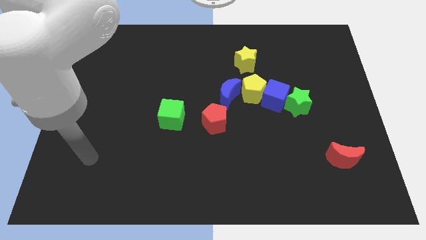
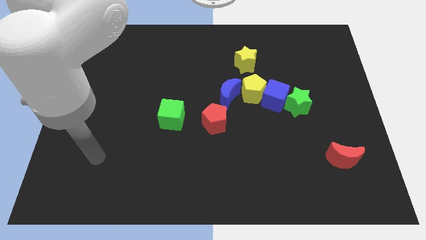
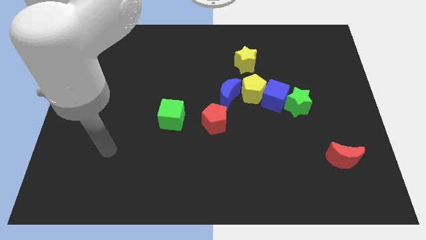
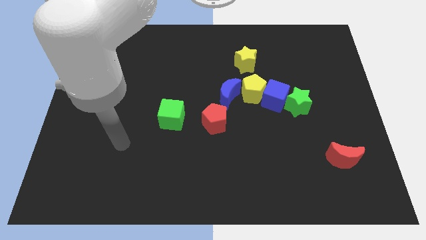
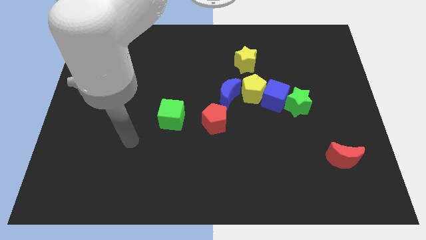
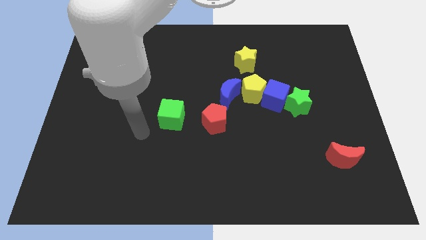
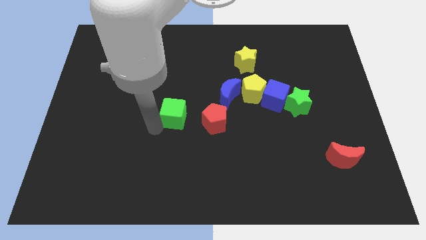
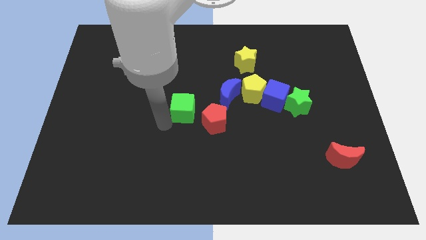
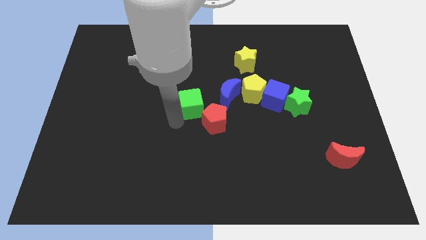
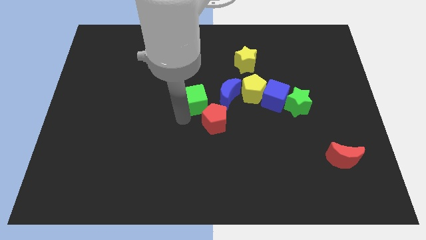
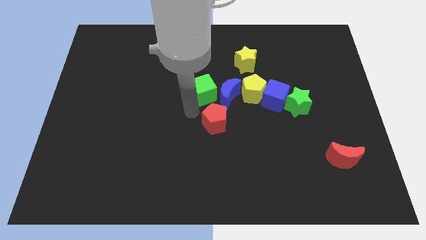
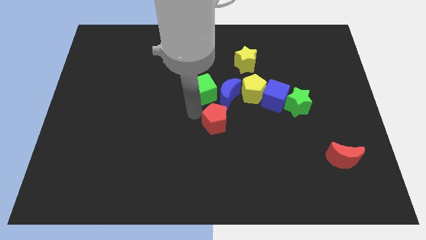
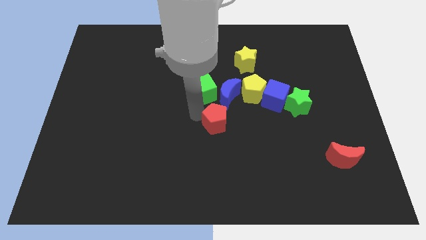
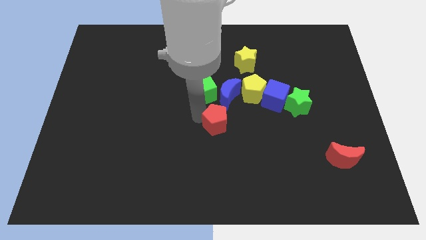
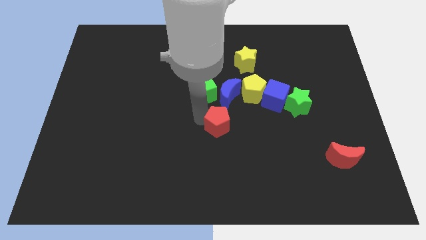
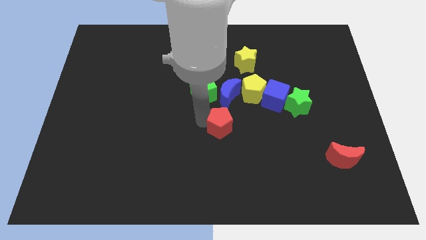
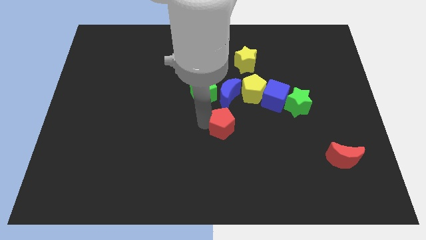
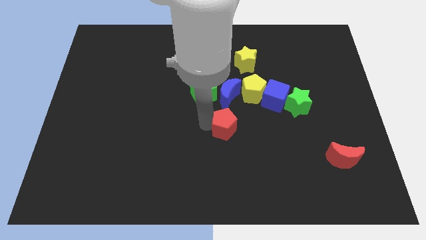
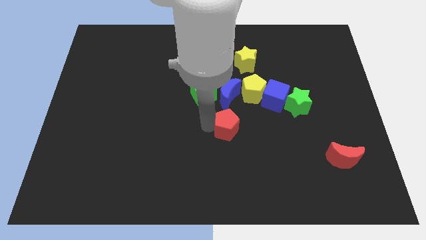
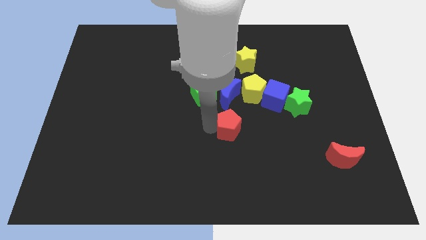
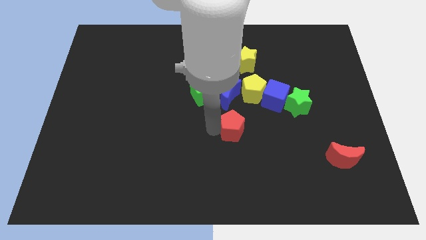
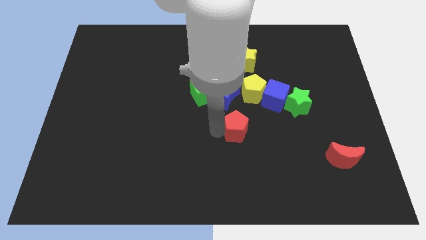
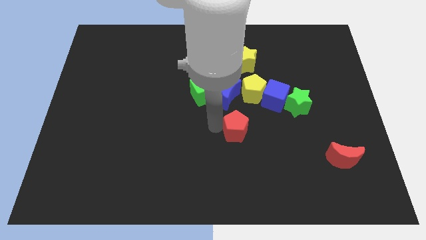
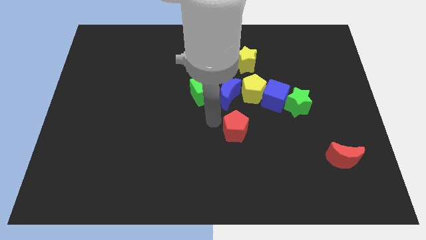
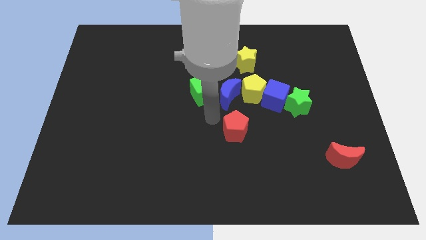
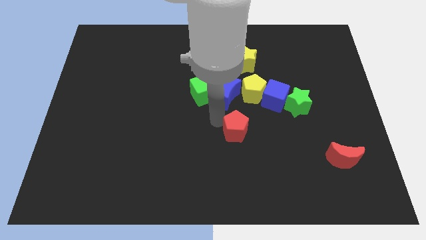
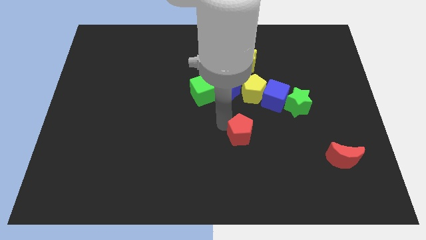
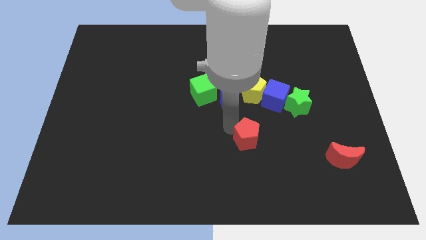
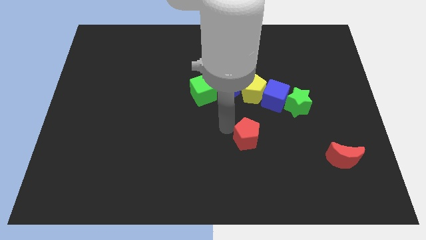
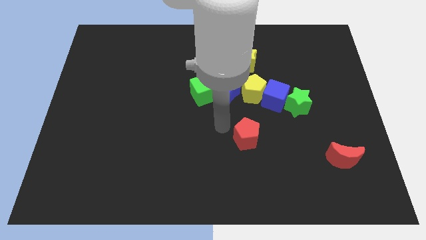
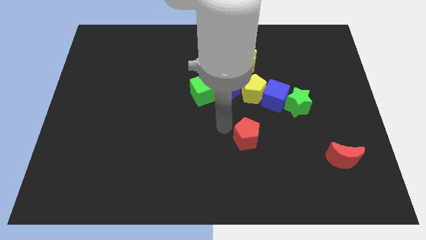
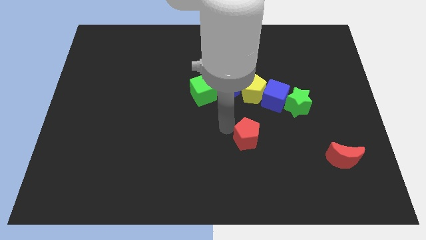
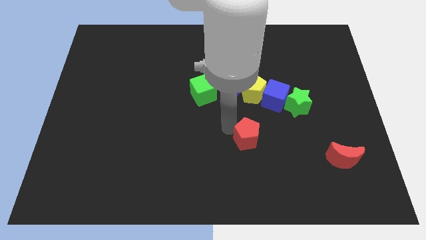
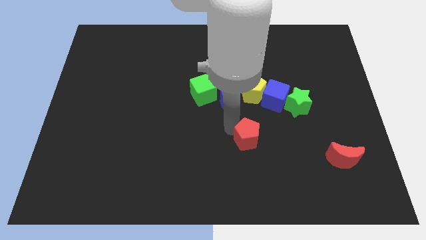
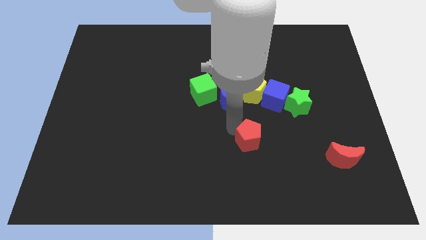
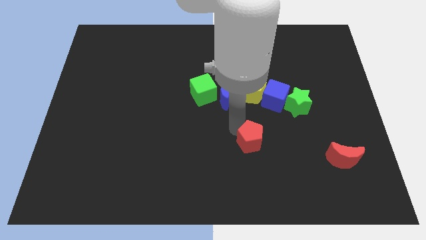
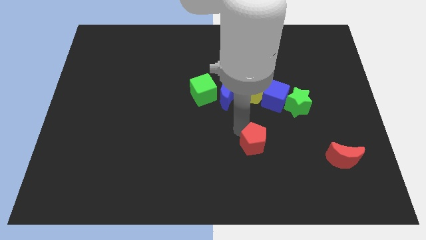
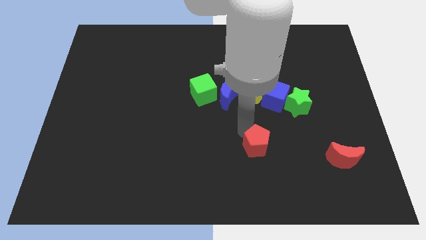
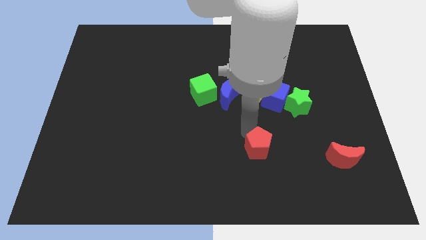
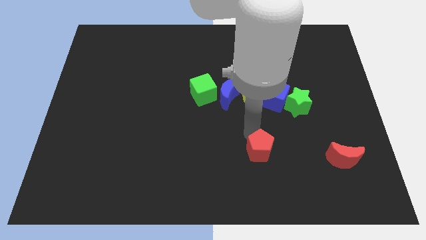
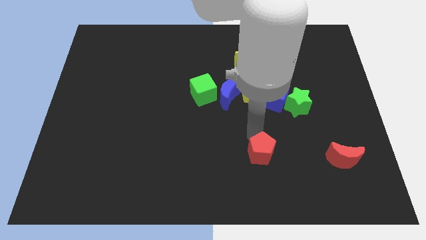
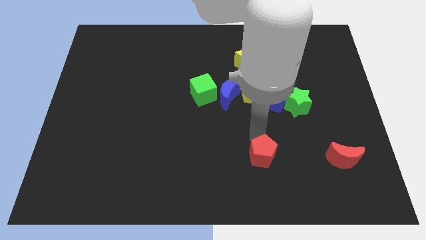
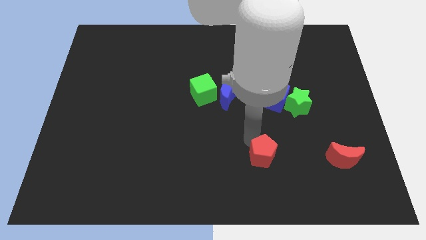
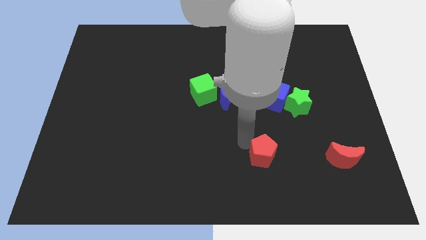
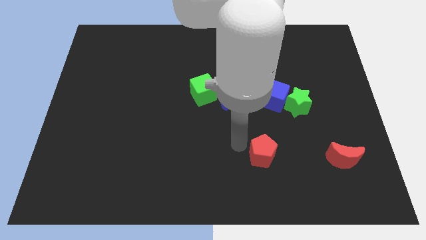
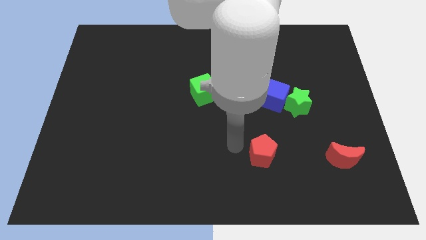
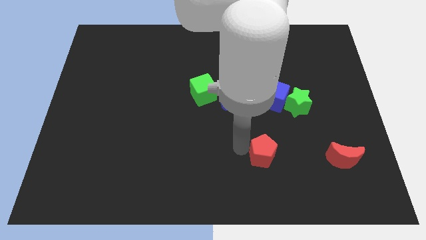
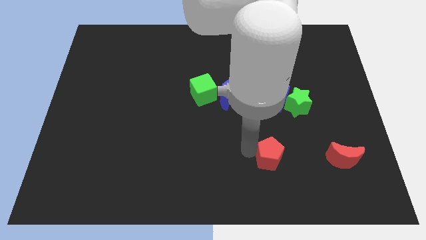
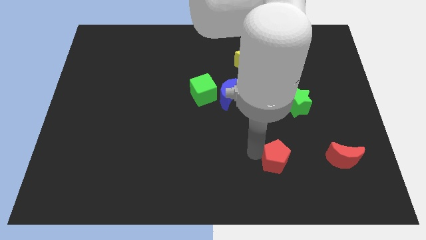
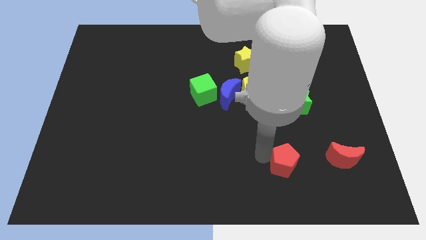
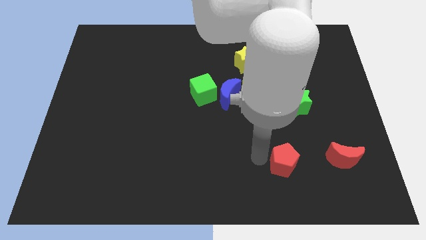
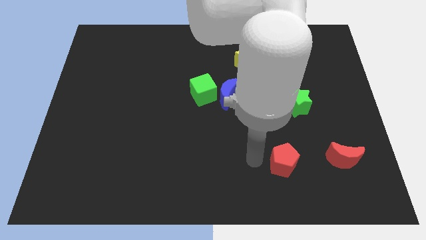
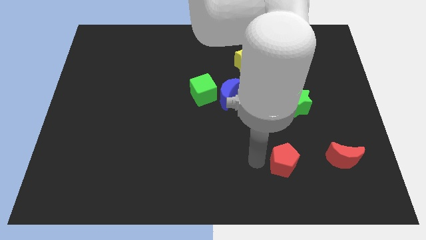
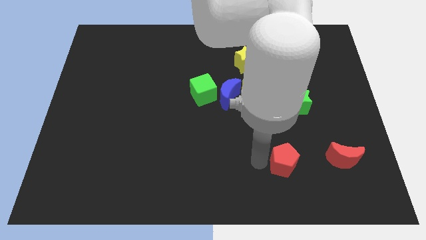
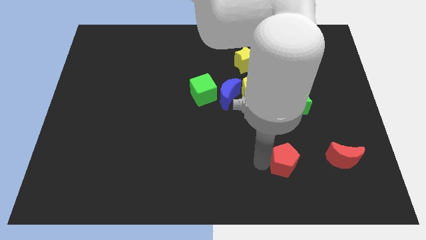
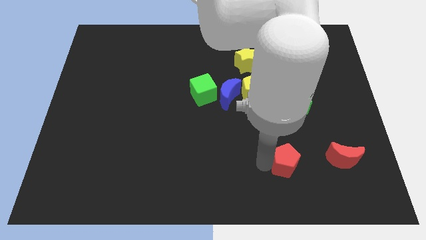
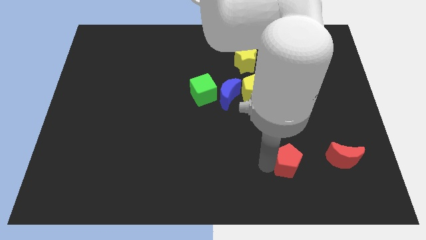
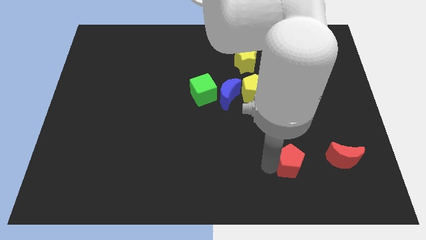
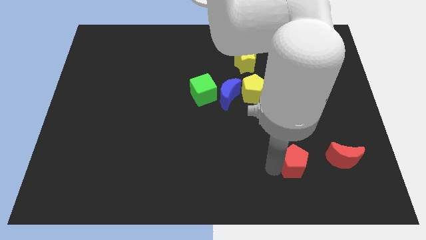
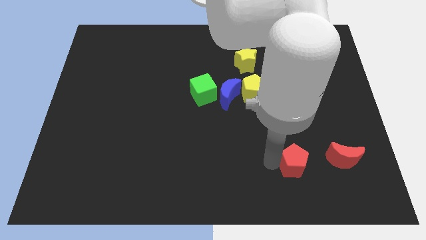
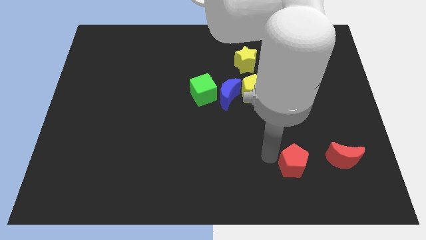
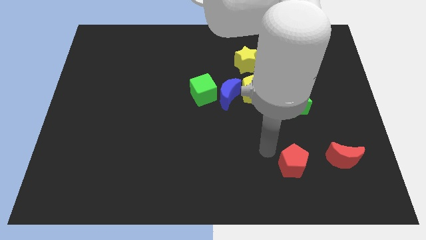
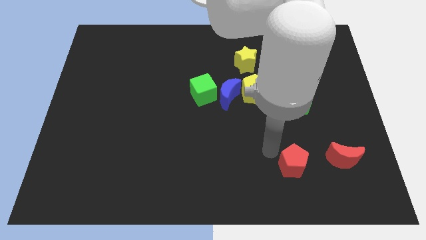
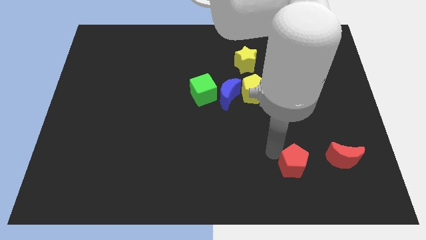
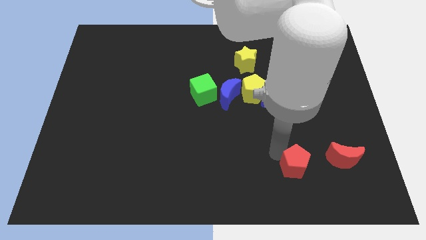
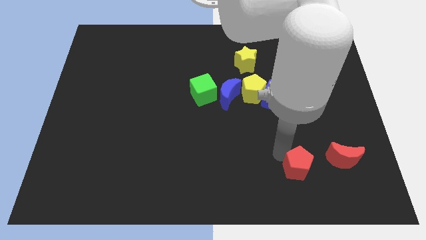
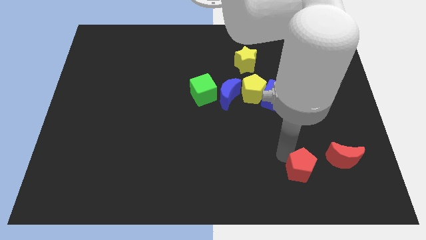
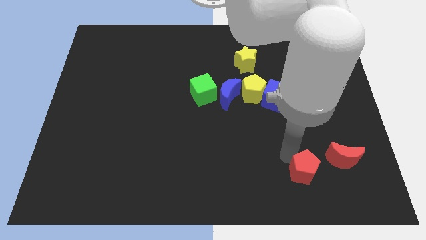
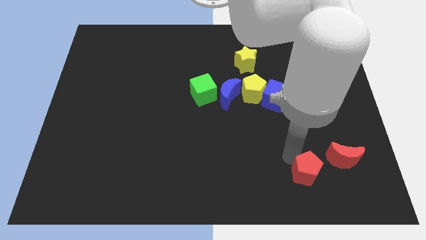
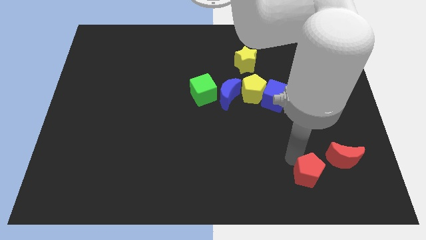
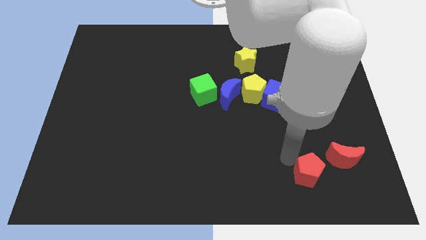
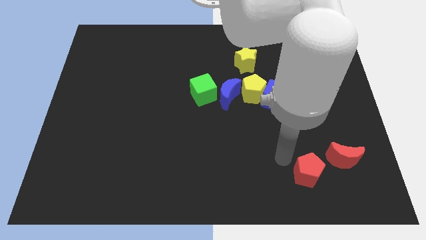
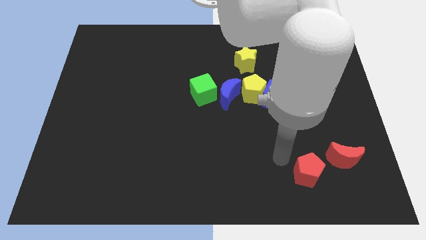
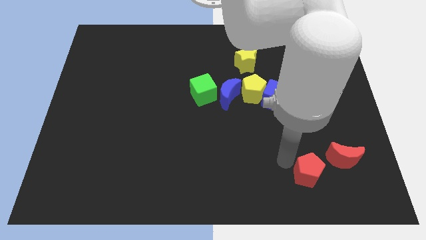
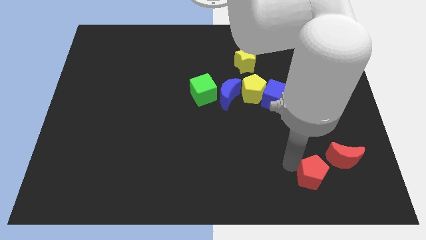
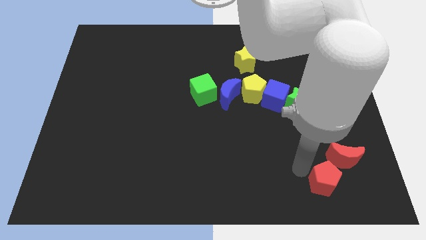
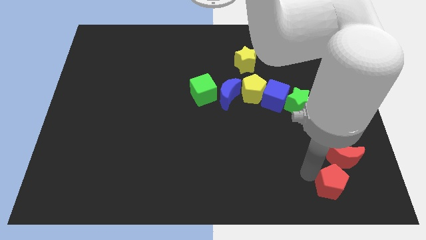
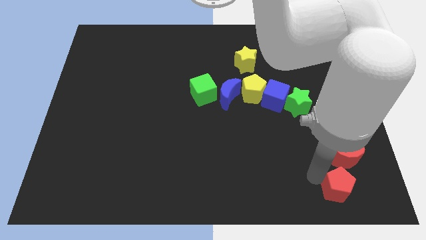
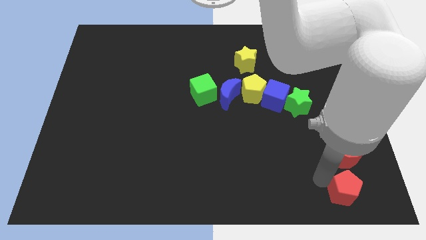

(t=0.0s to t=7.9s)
move the red pentagon to the bottom right
